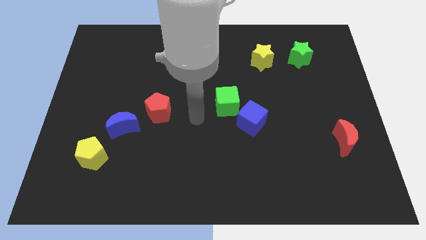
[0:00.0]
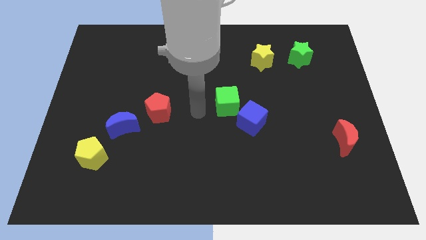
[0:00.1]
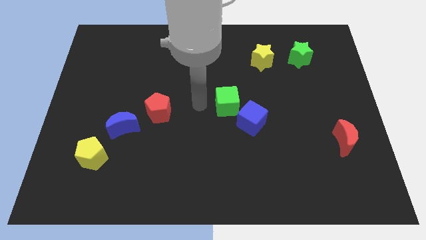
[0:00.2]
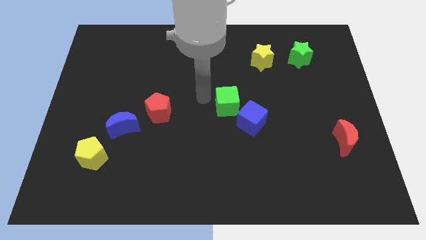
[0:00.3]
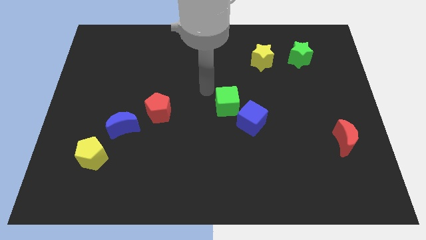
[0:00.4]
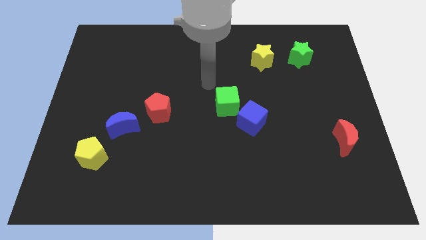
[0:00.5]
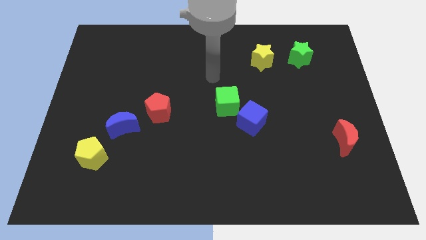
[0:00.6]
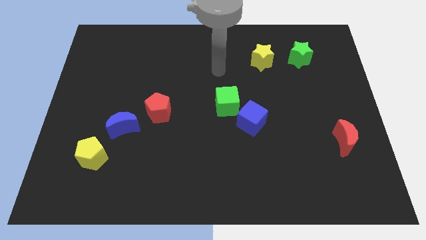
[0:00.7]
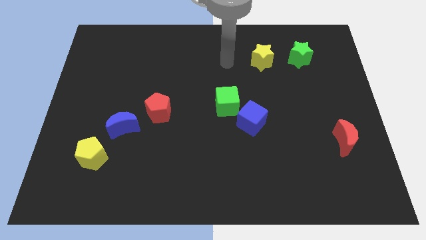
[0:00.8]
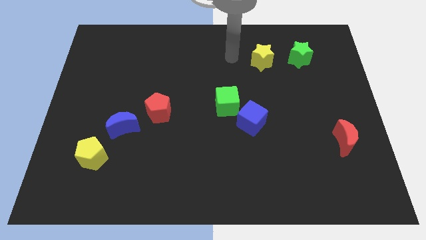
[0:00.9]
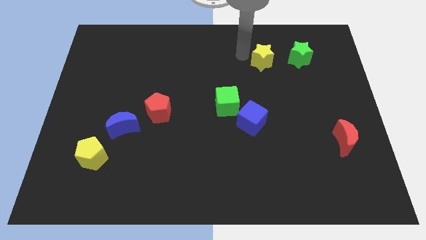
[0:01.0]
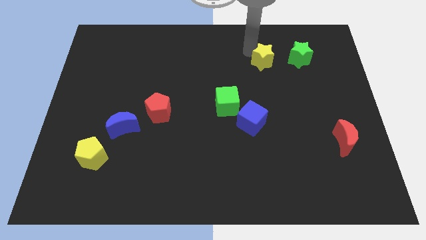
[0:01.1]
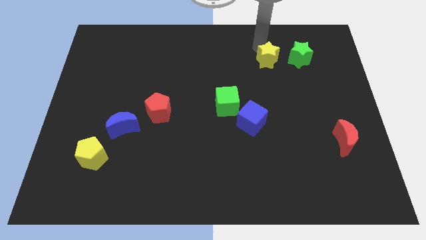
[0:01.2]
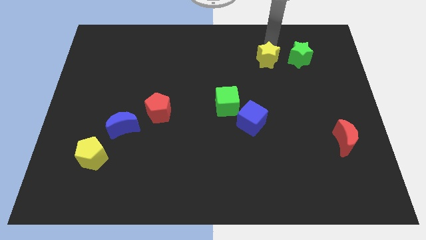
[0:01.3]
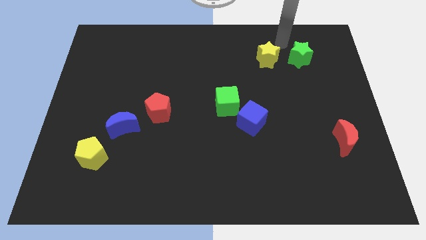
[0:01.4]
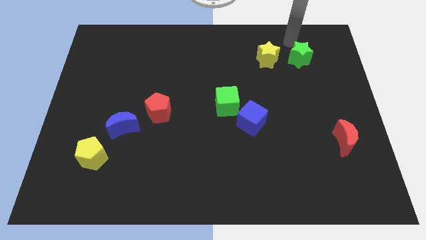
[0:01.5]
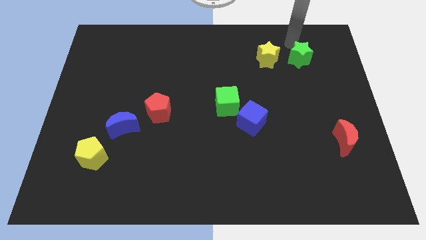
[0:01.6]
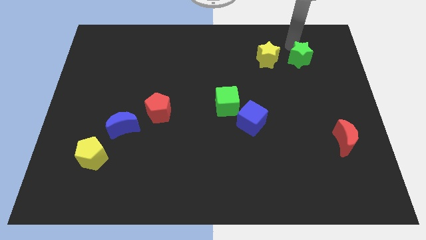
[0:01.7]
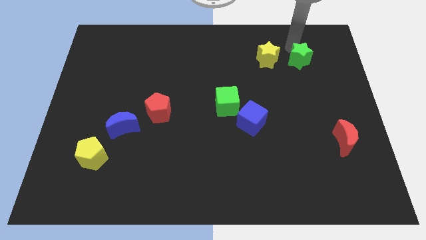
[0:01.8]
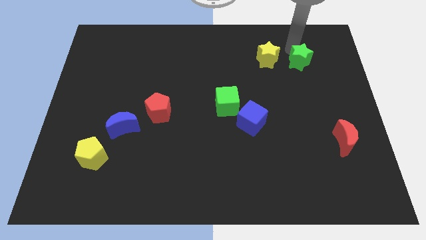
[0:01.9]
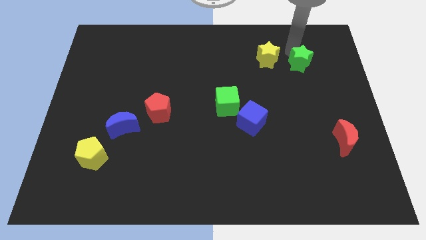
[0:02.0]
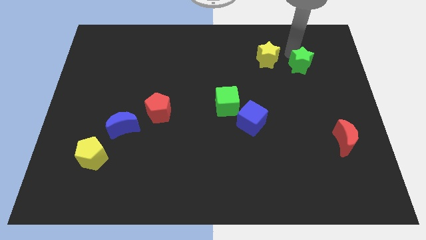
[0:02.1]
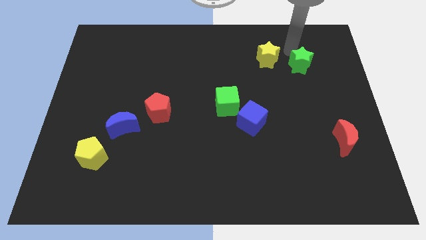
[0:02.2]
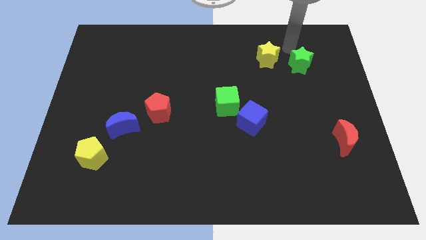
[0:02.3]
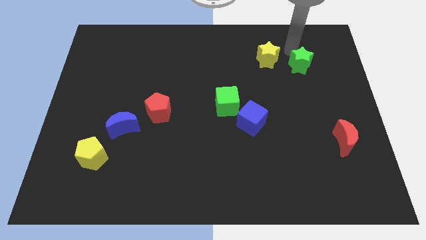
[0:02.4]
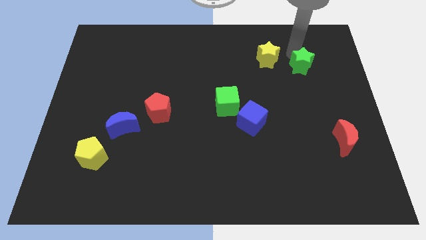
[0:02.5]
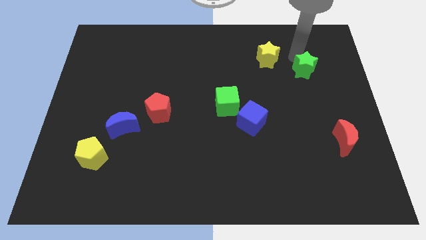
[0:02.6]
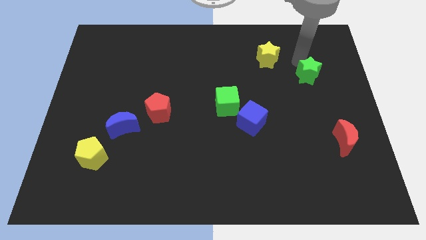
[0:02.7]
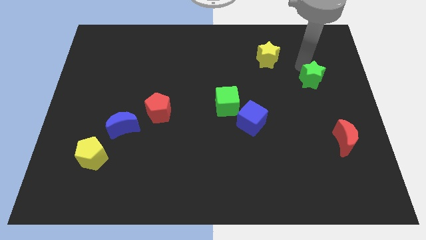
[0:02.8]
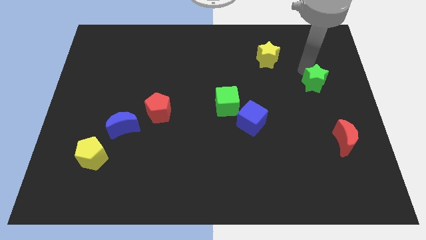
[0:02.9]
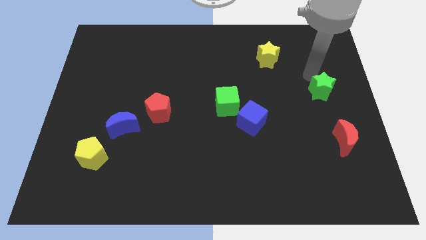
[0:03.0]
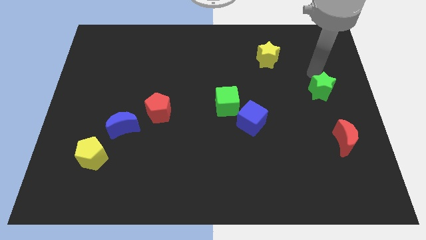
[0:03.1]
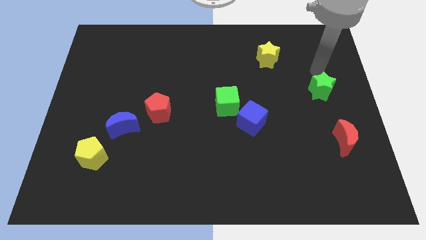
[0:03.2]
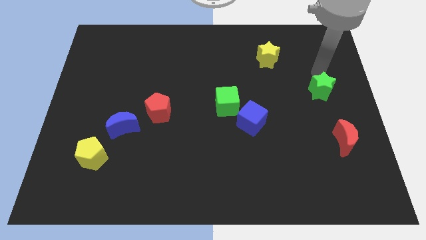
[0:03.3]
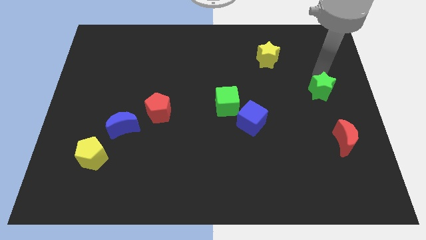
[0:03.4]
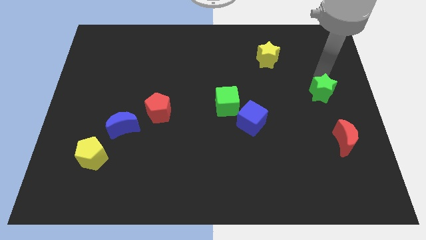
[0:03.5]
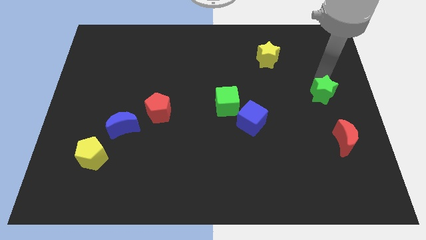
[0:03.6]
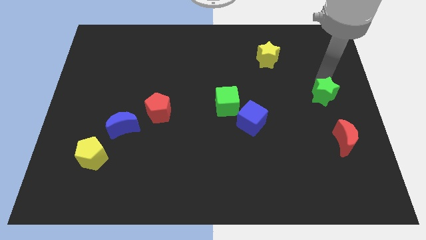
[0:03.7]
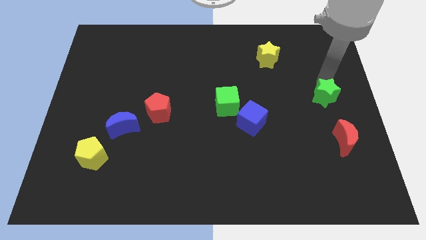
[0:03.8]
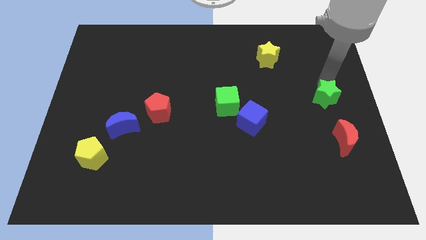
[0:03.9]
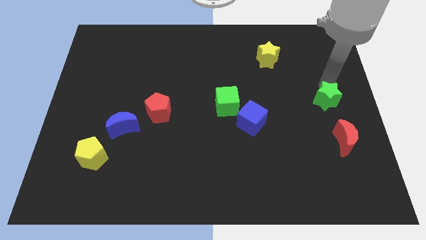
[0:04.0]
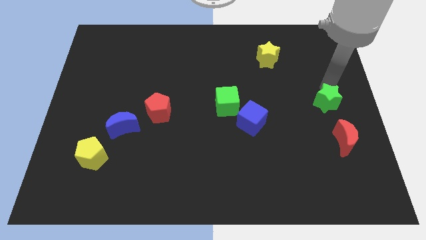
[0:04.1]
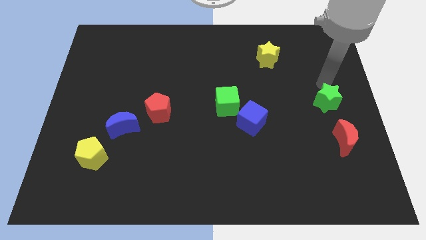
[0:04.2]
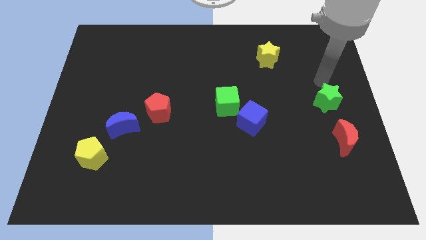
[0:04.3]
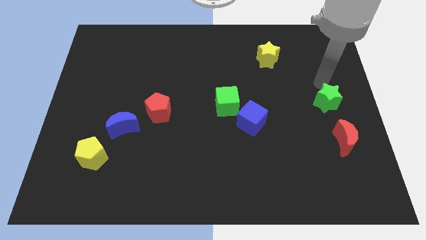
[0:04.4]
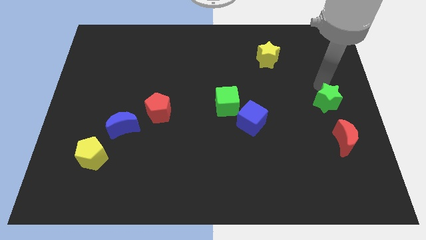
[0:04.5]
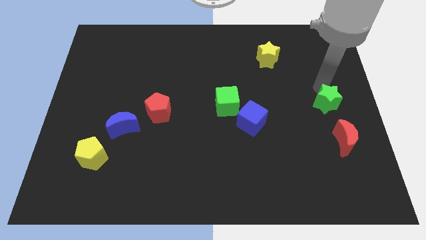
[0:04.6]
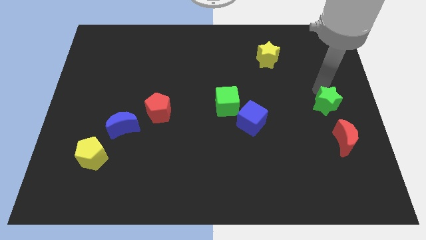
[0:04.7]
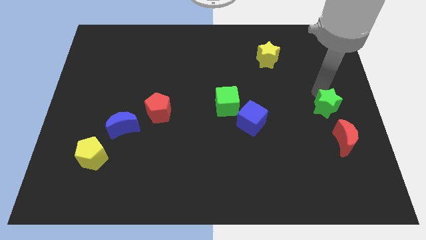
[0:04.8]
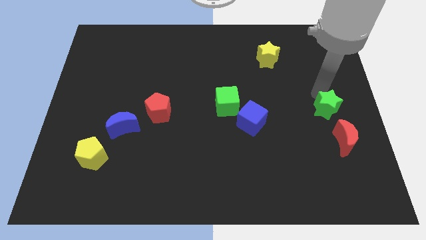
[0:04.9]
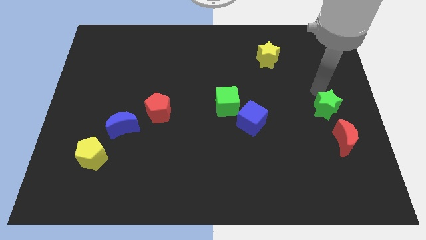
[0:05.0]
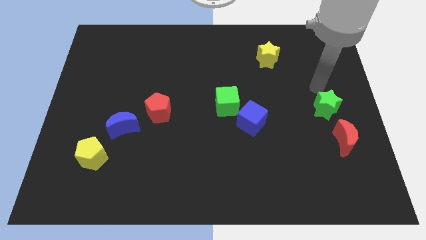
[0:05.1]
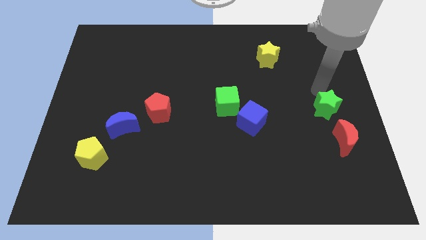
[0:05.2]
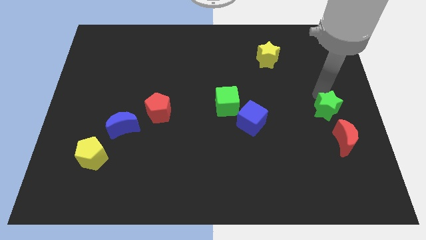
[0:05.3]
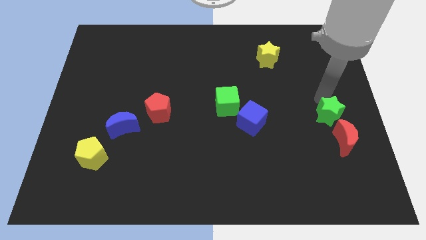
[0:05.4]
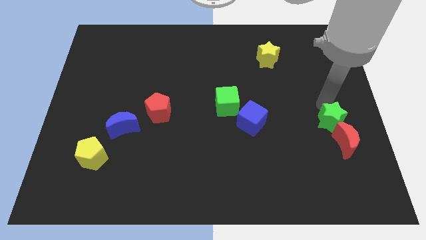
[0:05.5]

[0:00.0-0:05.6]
put the green star to the red moon

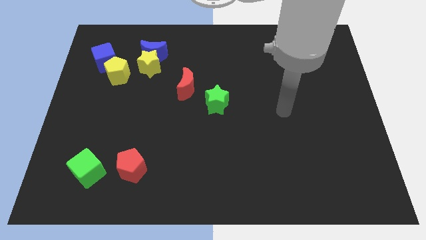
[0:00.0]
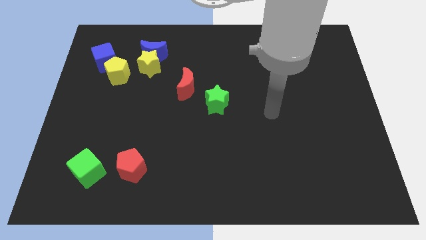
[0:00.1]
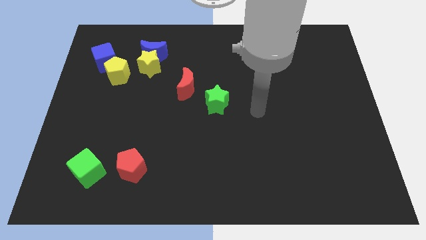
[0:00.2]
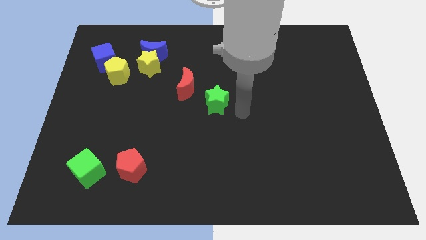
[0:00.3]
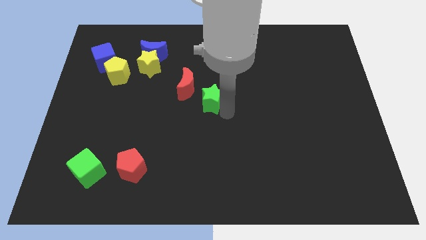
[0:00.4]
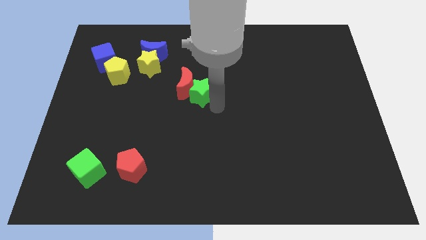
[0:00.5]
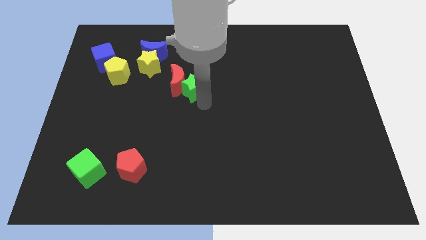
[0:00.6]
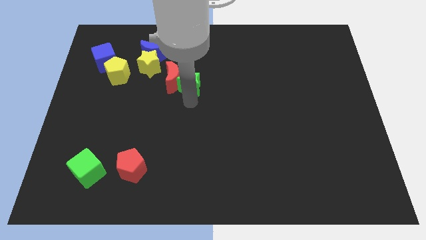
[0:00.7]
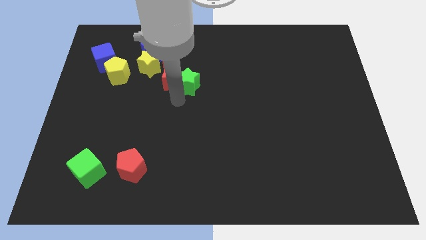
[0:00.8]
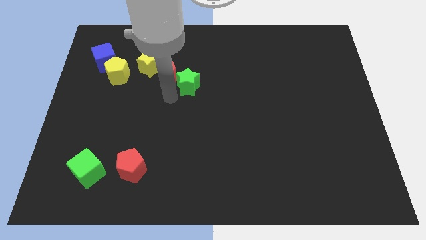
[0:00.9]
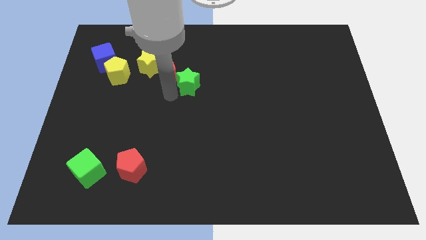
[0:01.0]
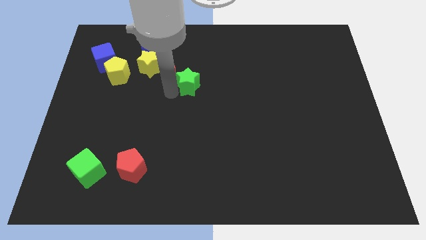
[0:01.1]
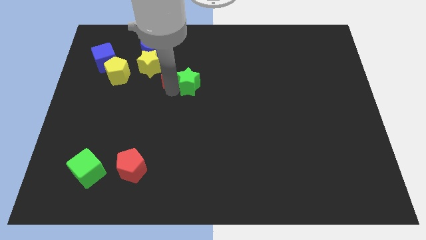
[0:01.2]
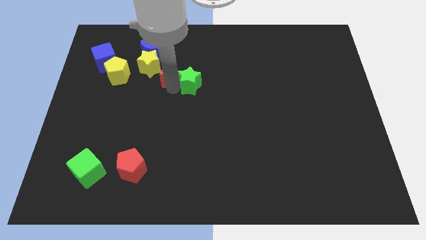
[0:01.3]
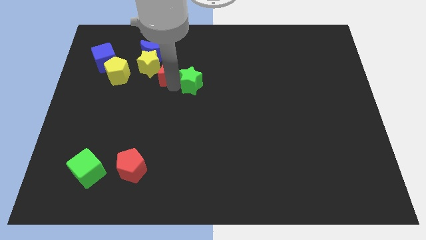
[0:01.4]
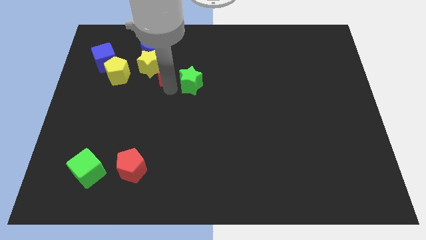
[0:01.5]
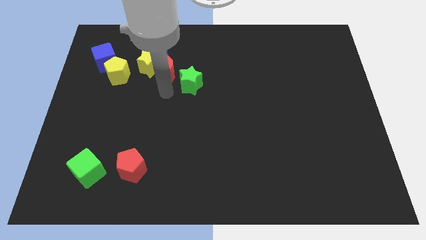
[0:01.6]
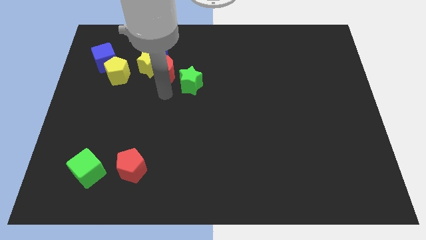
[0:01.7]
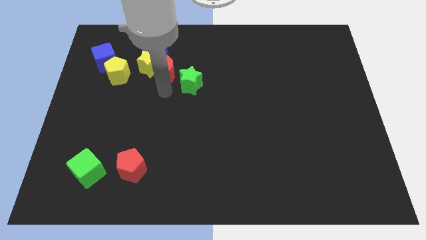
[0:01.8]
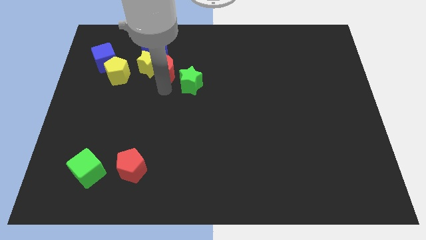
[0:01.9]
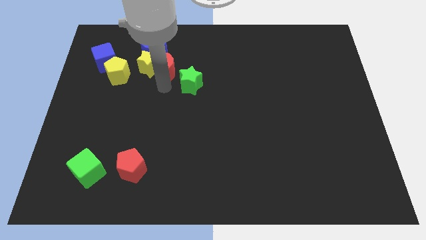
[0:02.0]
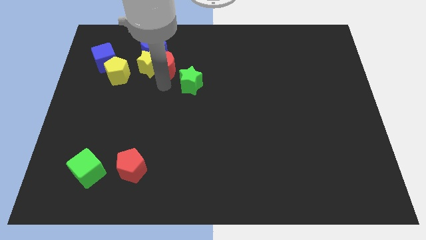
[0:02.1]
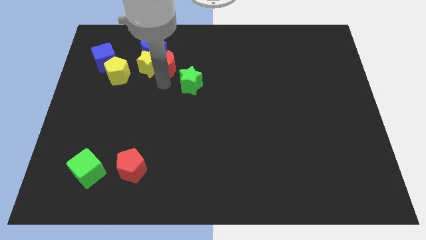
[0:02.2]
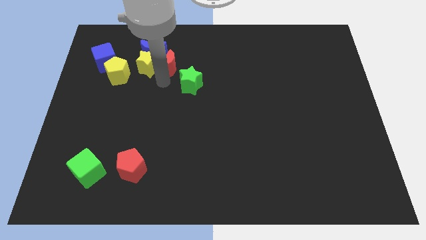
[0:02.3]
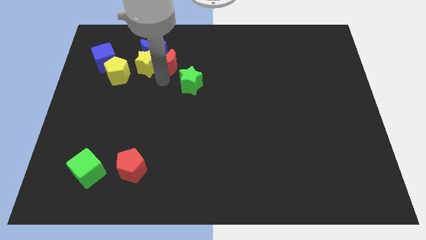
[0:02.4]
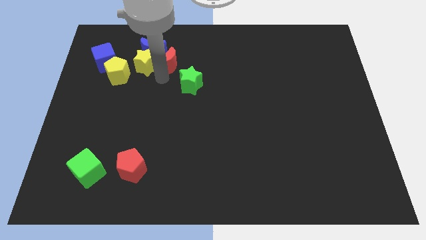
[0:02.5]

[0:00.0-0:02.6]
move the red moon next to the blue moon
